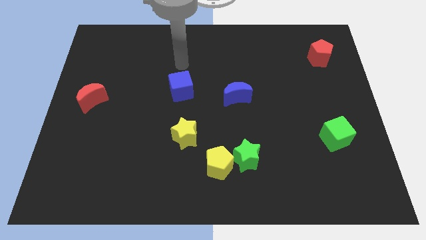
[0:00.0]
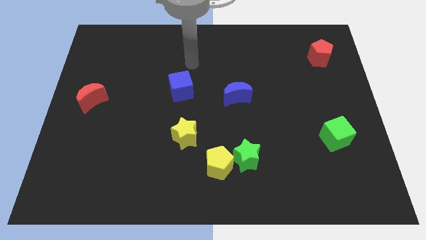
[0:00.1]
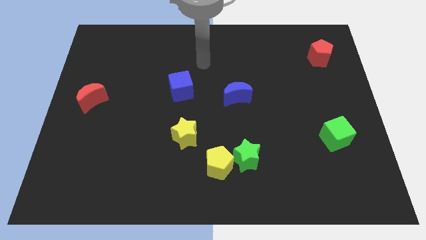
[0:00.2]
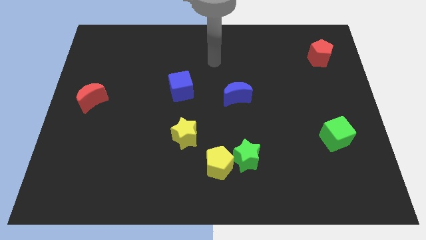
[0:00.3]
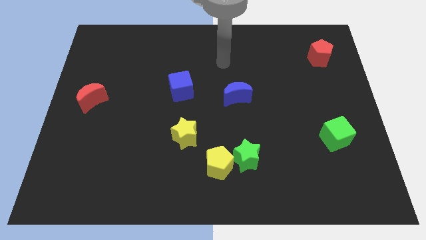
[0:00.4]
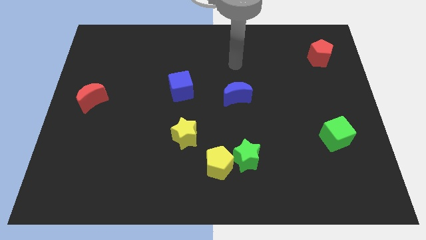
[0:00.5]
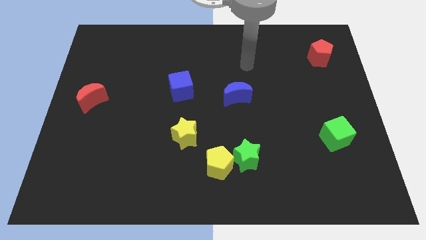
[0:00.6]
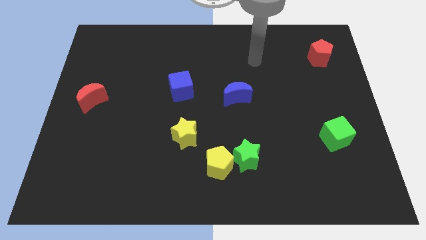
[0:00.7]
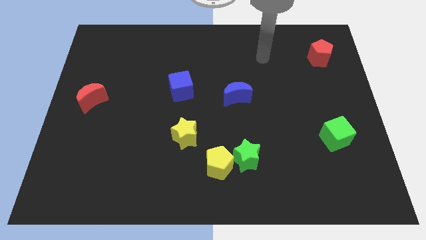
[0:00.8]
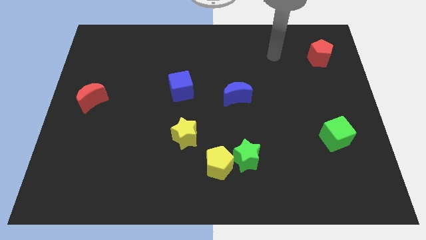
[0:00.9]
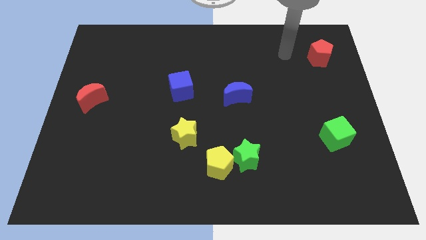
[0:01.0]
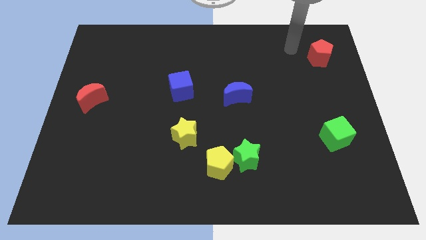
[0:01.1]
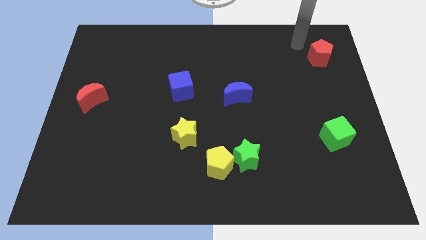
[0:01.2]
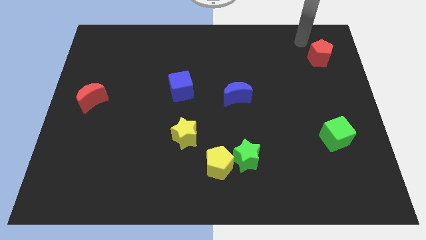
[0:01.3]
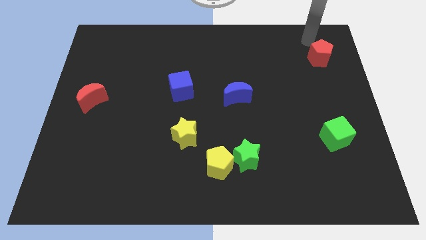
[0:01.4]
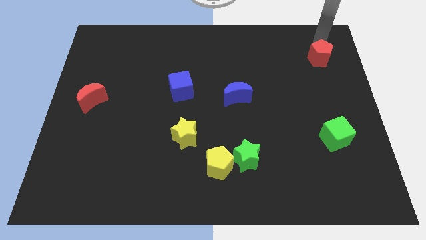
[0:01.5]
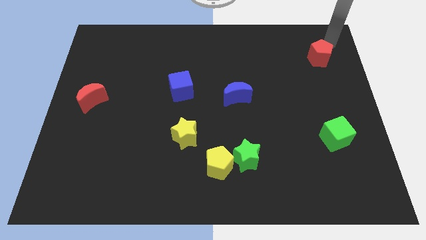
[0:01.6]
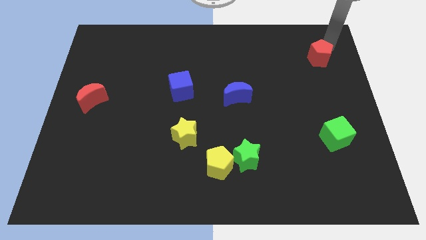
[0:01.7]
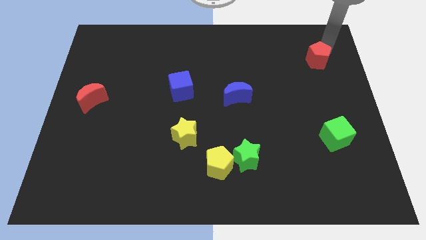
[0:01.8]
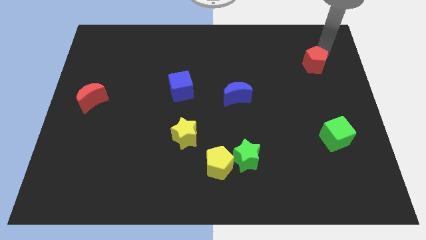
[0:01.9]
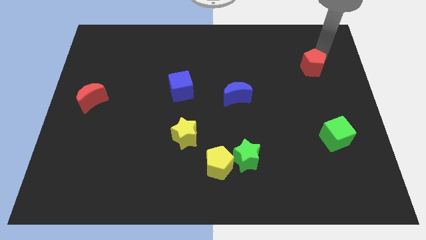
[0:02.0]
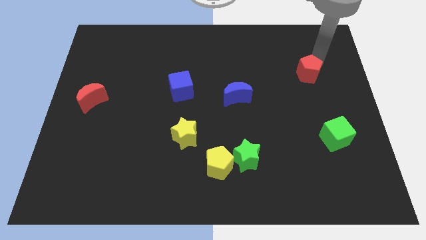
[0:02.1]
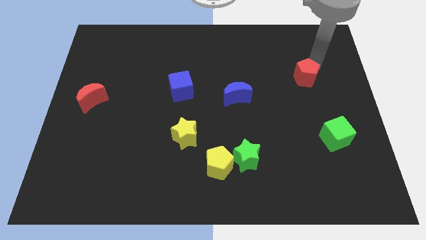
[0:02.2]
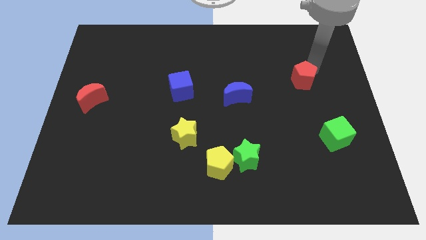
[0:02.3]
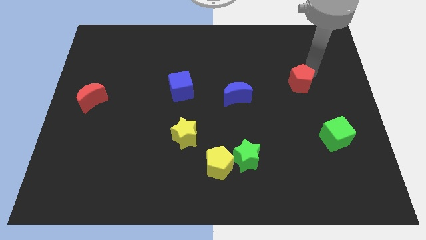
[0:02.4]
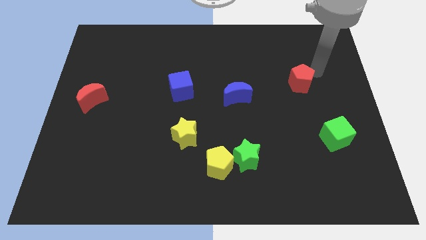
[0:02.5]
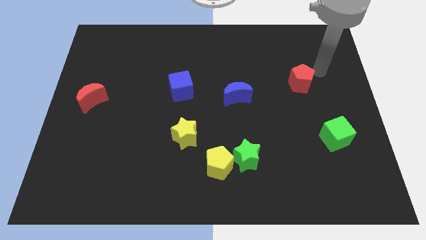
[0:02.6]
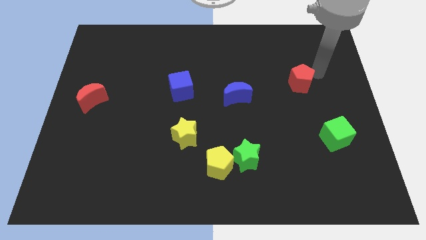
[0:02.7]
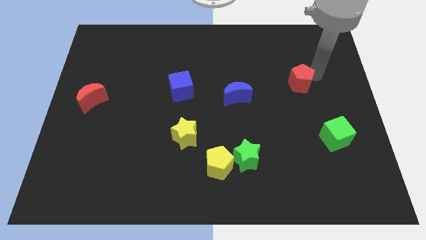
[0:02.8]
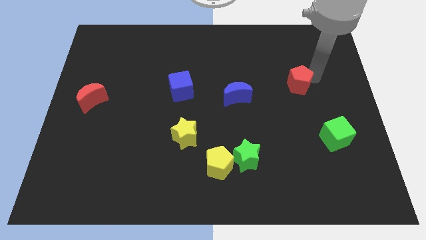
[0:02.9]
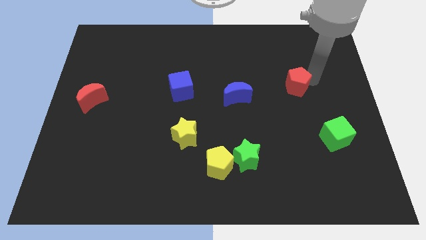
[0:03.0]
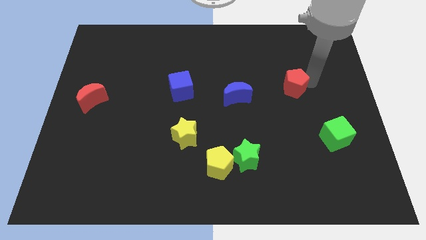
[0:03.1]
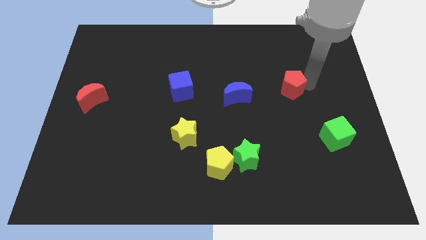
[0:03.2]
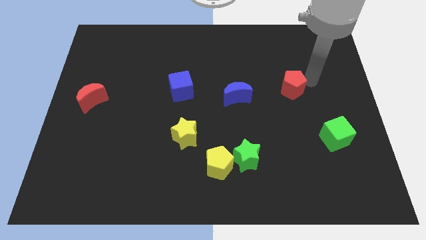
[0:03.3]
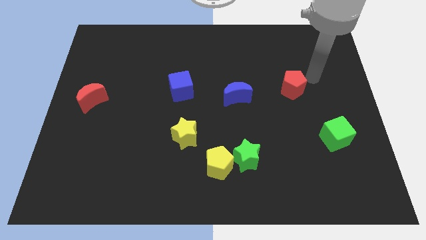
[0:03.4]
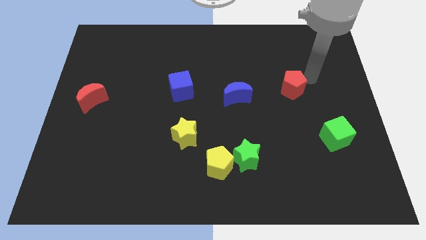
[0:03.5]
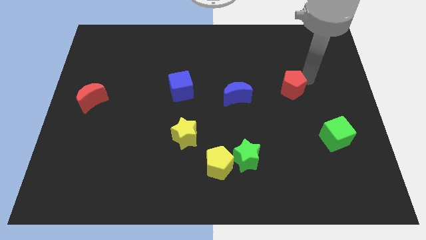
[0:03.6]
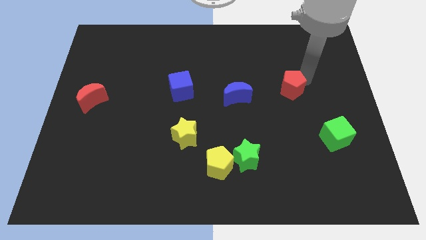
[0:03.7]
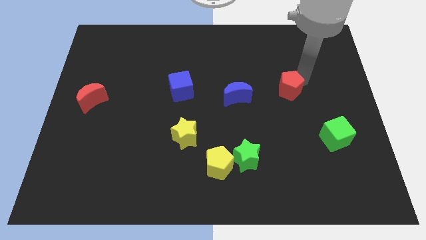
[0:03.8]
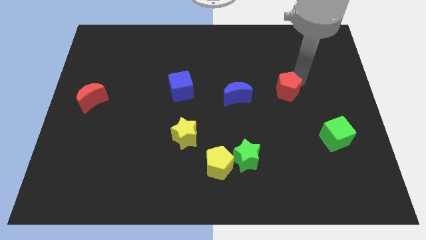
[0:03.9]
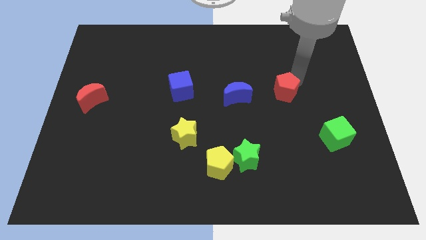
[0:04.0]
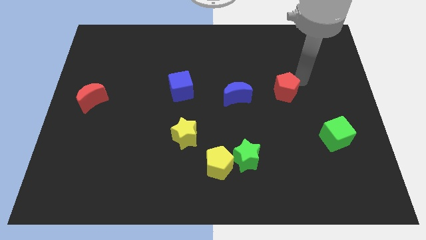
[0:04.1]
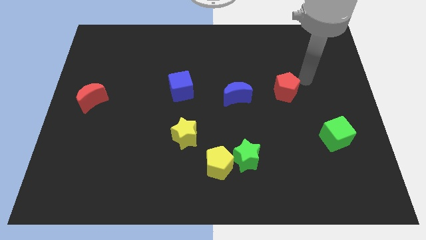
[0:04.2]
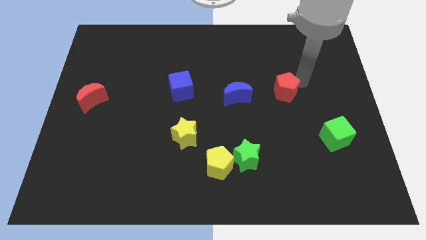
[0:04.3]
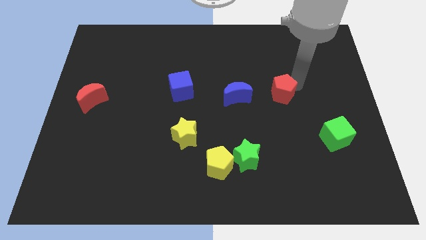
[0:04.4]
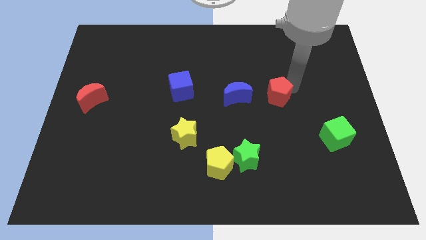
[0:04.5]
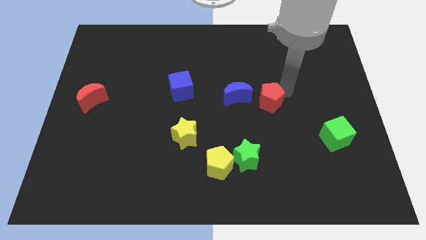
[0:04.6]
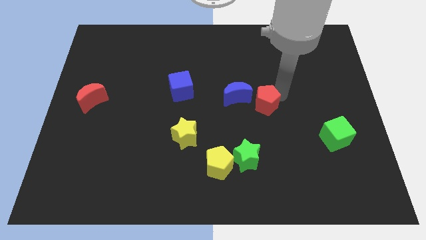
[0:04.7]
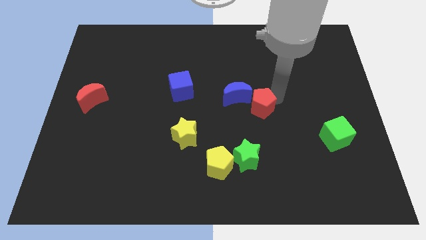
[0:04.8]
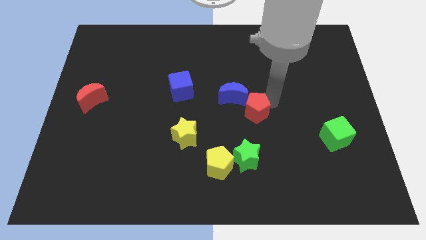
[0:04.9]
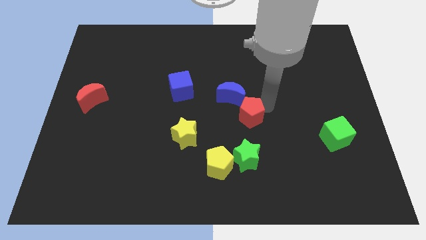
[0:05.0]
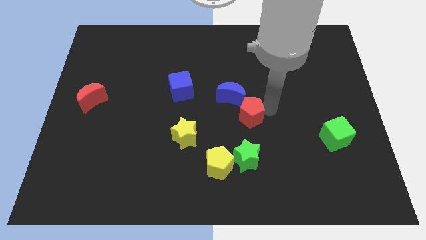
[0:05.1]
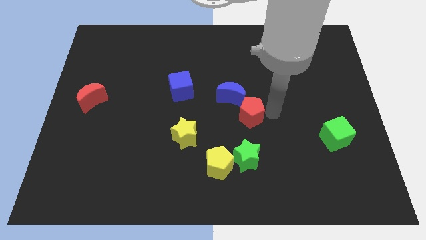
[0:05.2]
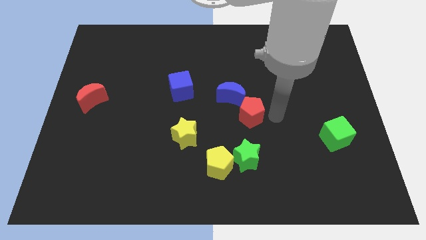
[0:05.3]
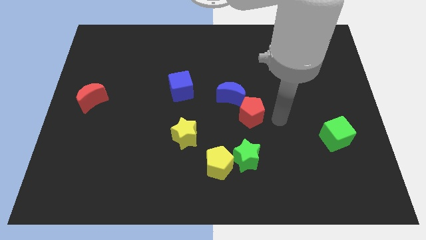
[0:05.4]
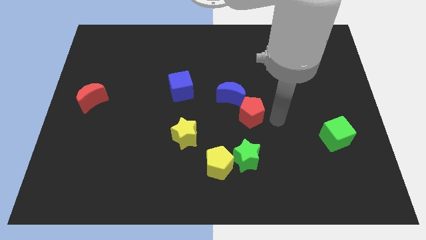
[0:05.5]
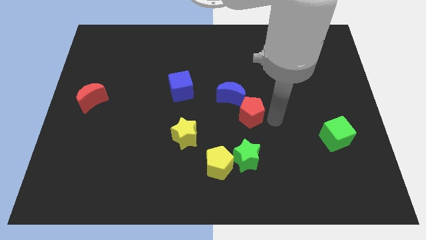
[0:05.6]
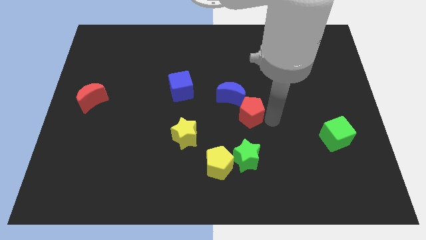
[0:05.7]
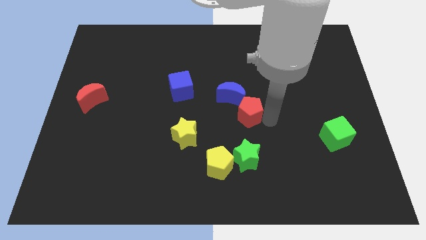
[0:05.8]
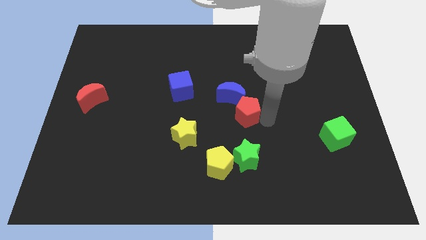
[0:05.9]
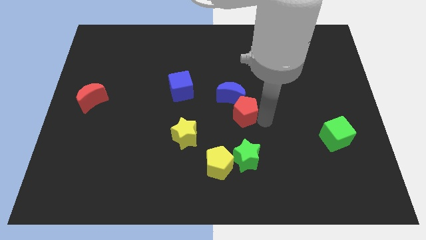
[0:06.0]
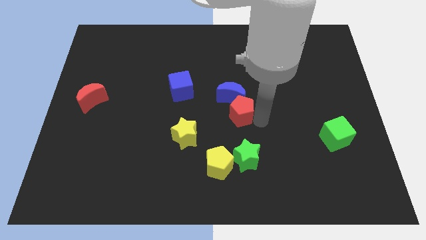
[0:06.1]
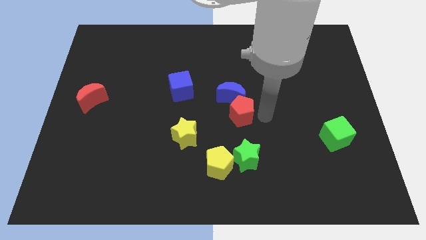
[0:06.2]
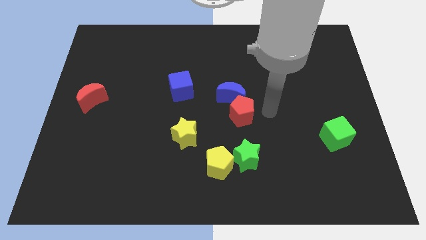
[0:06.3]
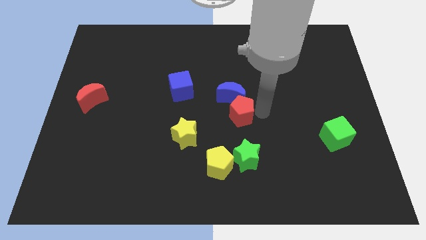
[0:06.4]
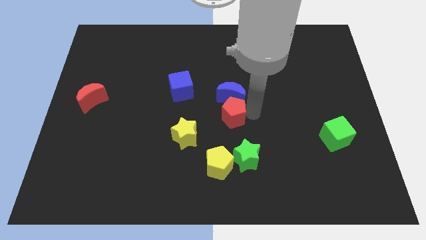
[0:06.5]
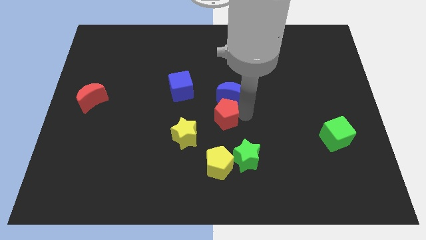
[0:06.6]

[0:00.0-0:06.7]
move the red pentagon to the top right of the yellow star

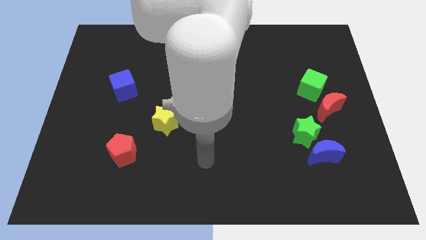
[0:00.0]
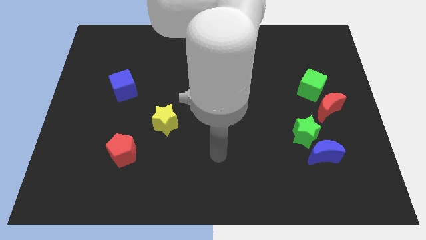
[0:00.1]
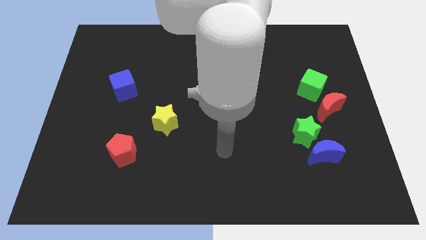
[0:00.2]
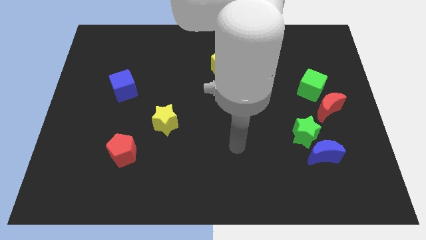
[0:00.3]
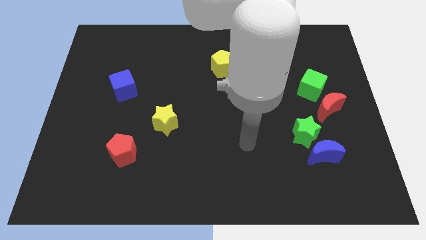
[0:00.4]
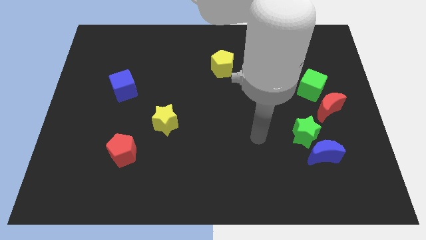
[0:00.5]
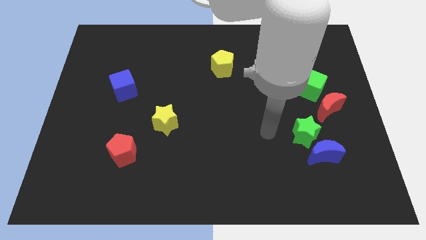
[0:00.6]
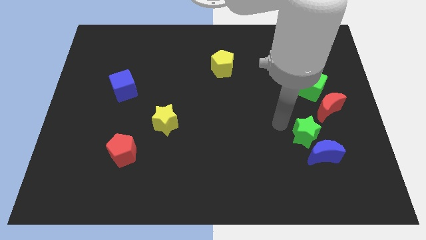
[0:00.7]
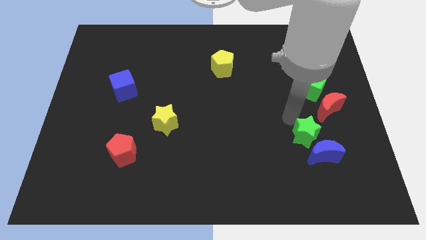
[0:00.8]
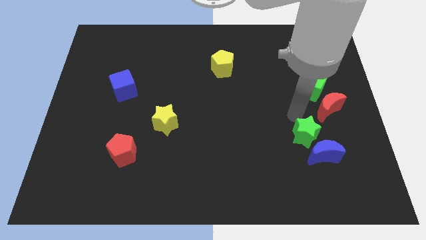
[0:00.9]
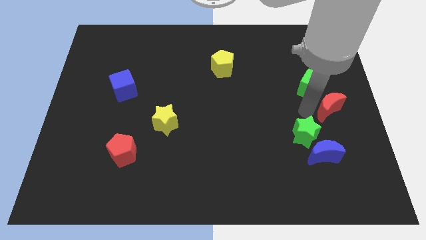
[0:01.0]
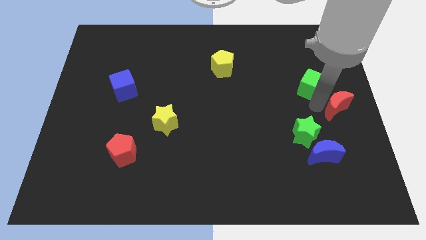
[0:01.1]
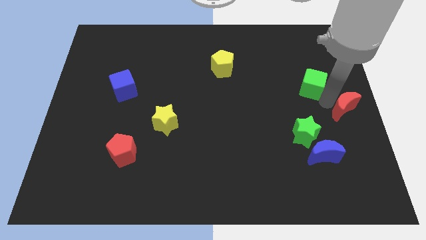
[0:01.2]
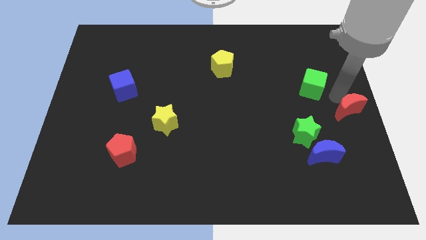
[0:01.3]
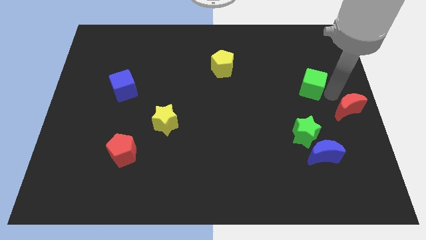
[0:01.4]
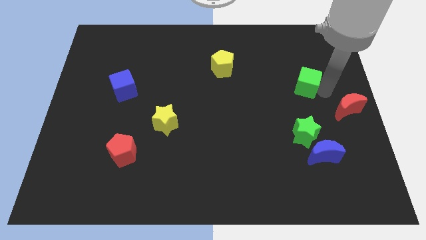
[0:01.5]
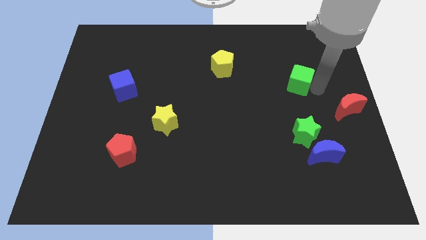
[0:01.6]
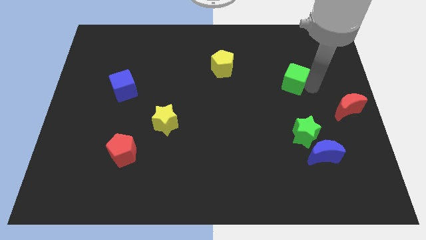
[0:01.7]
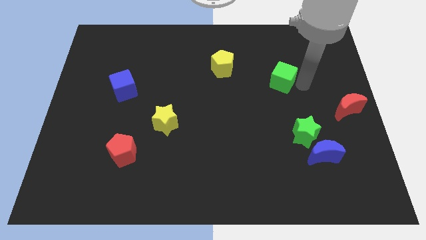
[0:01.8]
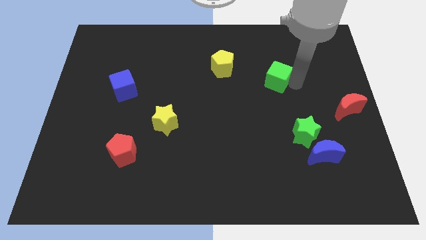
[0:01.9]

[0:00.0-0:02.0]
push the green cube right of the yellow pentagon
